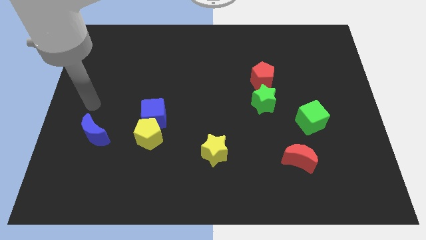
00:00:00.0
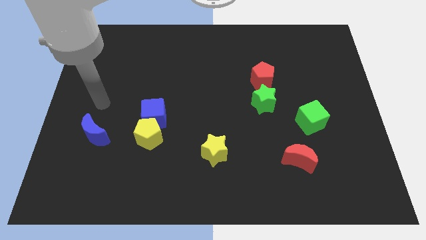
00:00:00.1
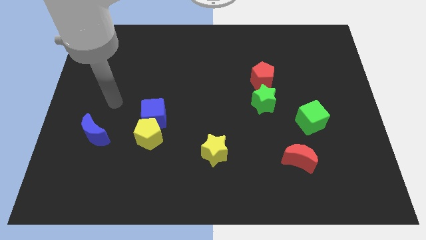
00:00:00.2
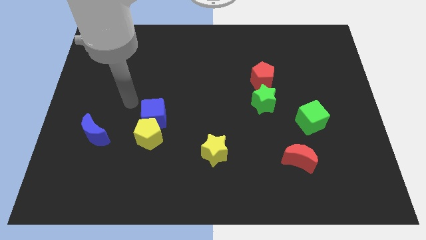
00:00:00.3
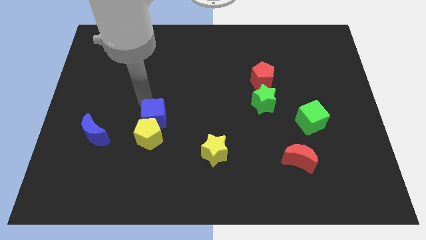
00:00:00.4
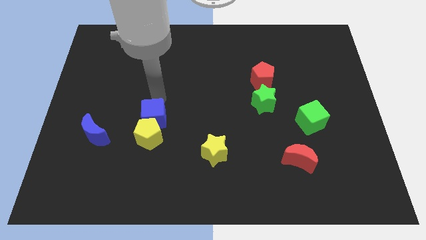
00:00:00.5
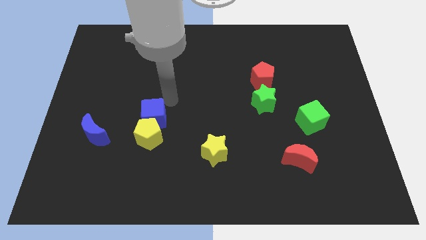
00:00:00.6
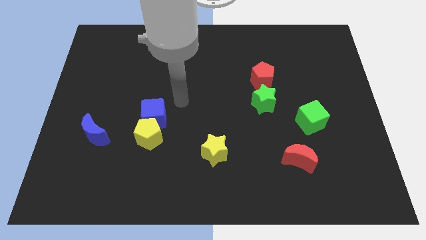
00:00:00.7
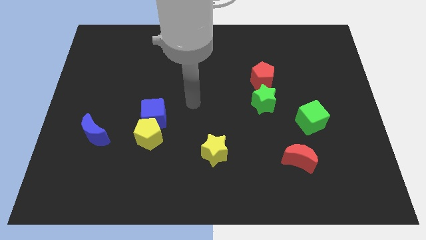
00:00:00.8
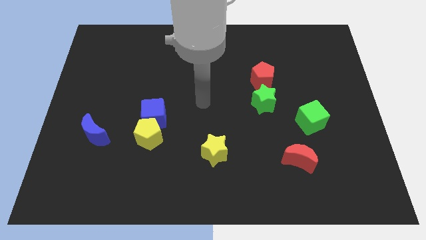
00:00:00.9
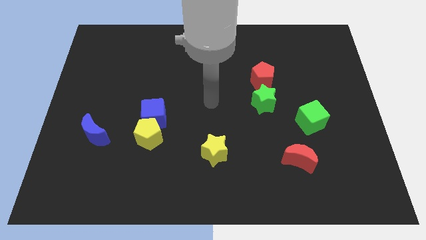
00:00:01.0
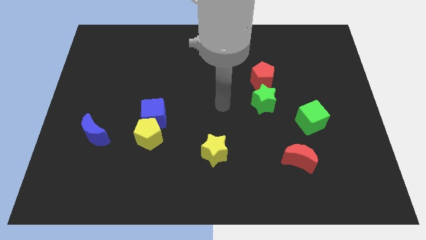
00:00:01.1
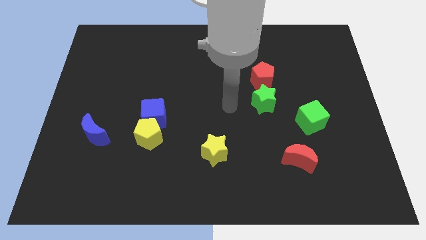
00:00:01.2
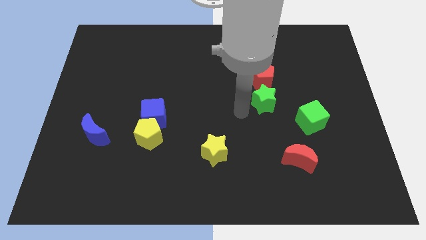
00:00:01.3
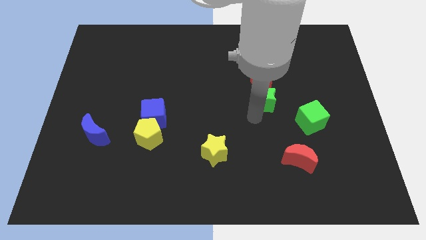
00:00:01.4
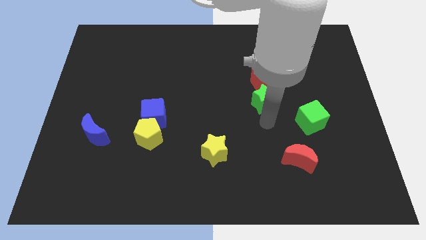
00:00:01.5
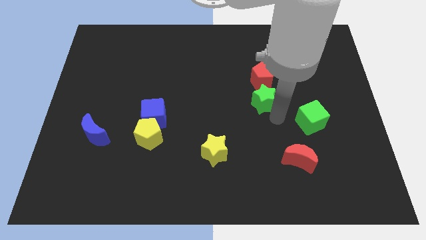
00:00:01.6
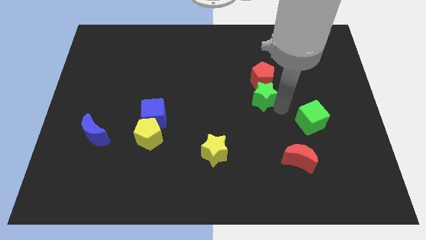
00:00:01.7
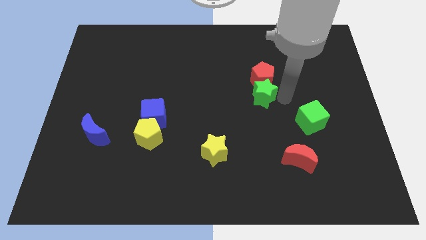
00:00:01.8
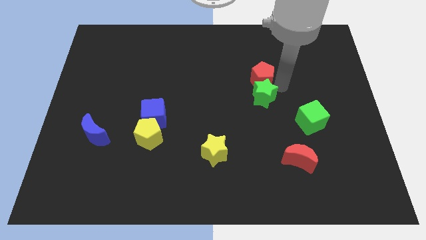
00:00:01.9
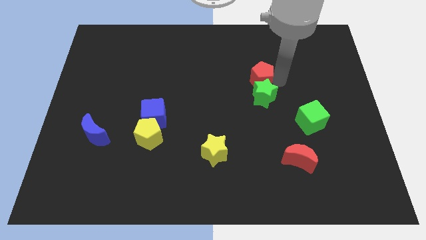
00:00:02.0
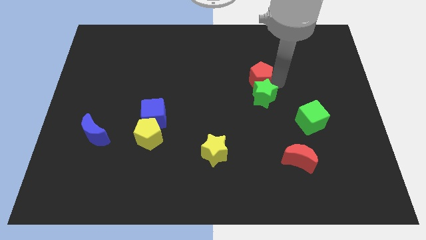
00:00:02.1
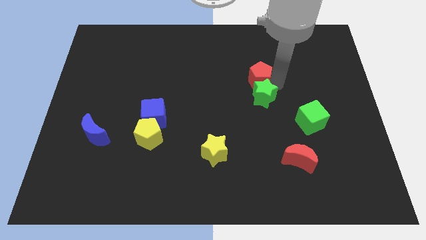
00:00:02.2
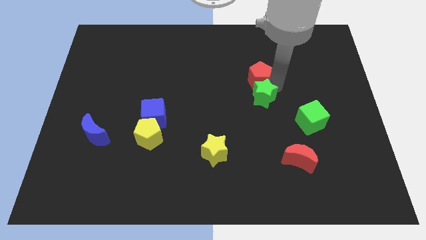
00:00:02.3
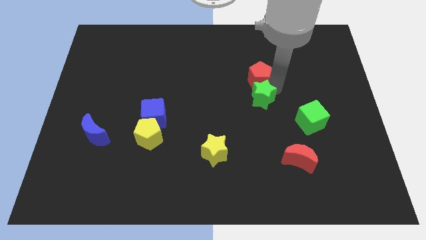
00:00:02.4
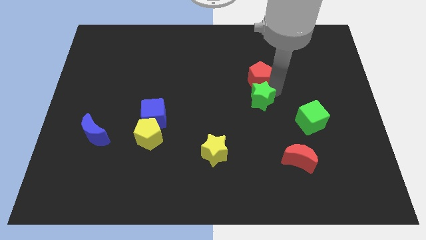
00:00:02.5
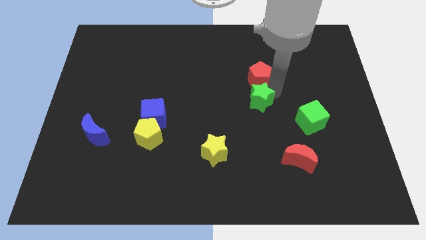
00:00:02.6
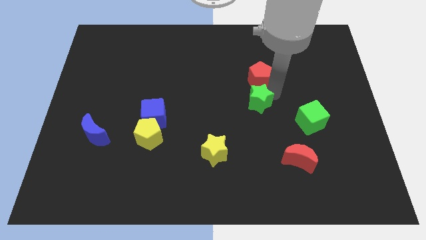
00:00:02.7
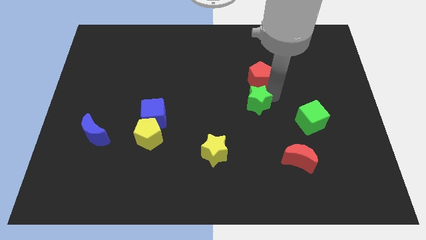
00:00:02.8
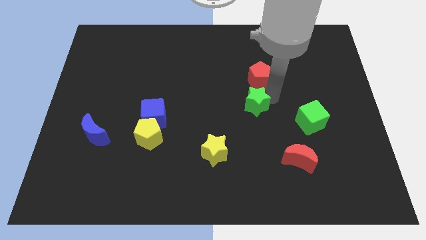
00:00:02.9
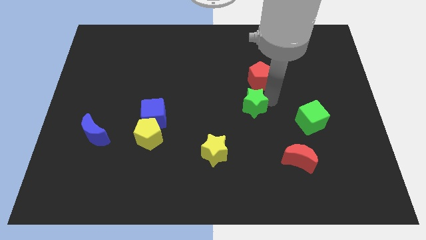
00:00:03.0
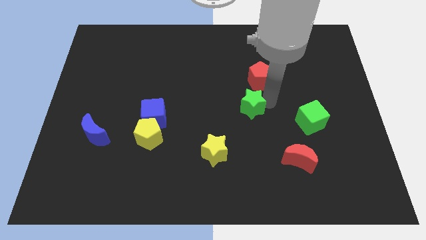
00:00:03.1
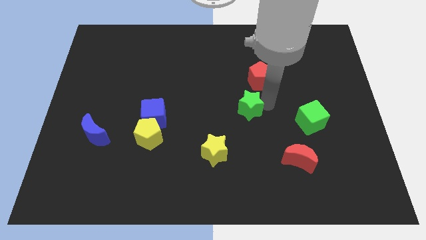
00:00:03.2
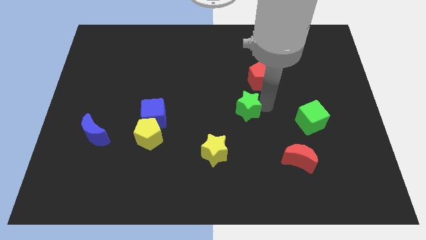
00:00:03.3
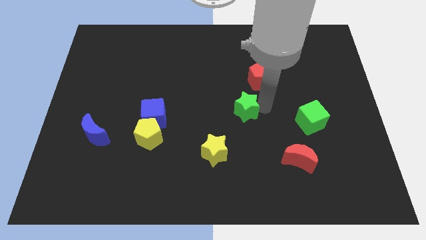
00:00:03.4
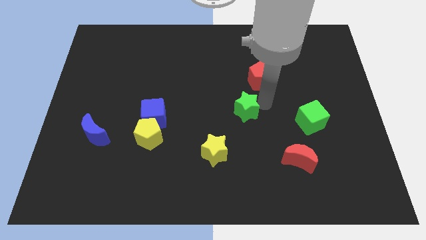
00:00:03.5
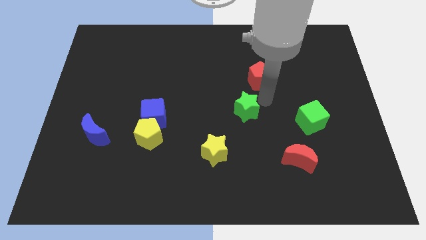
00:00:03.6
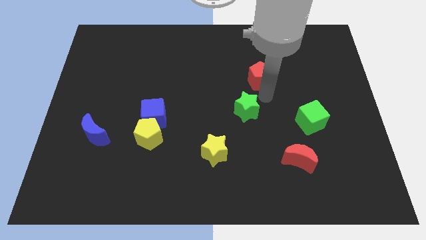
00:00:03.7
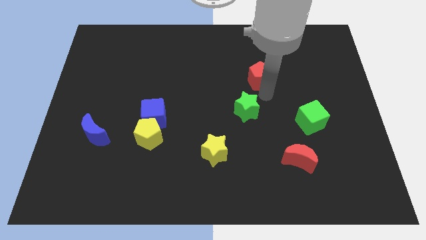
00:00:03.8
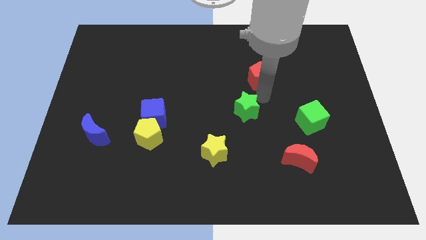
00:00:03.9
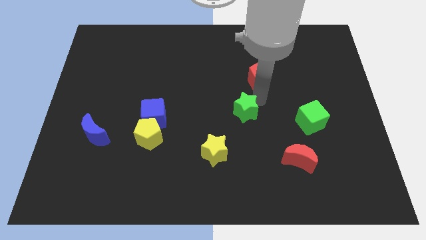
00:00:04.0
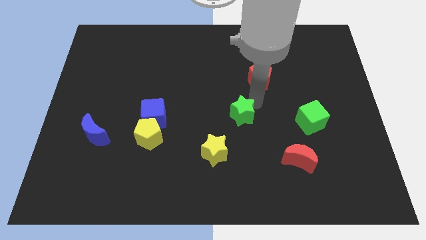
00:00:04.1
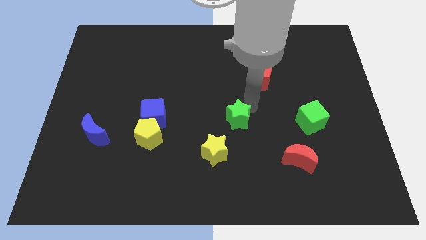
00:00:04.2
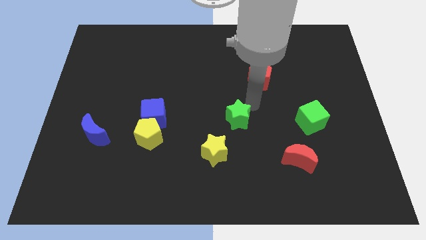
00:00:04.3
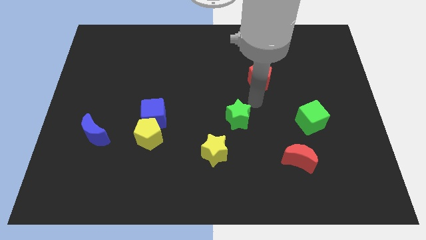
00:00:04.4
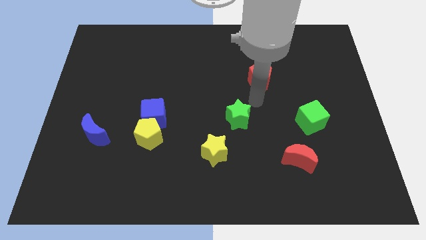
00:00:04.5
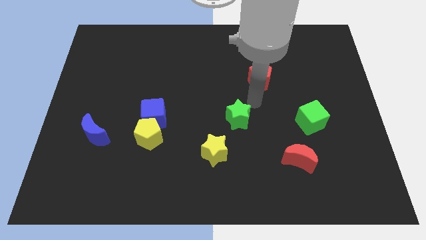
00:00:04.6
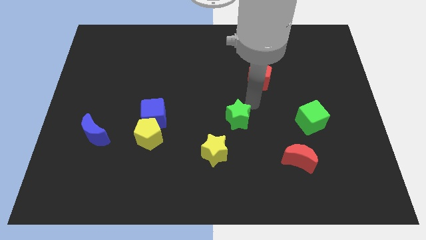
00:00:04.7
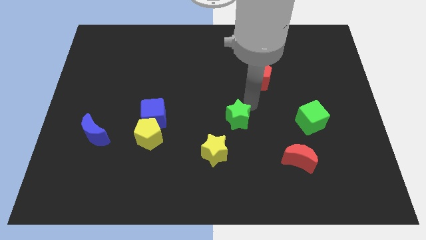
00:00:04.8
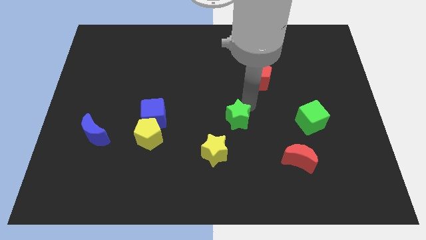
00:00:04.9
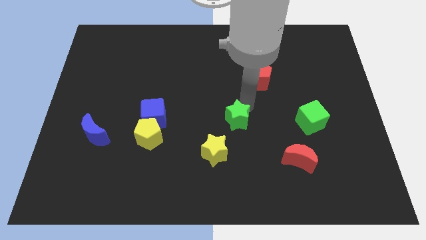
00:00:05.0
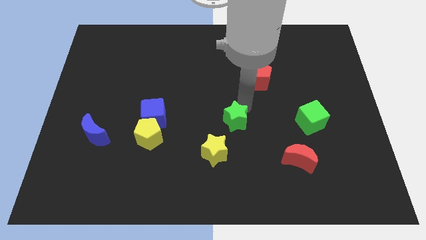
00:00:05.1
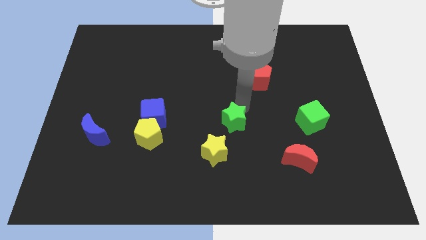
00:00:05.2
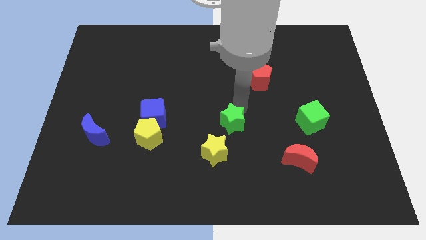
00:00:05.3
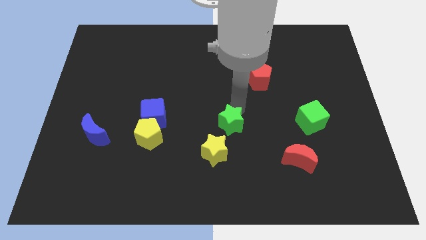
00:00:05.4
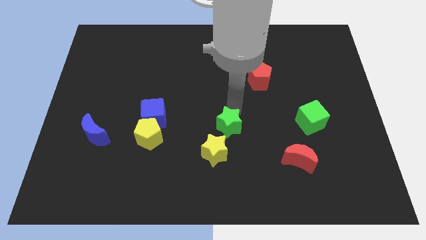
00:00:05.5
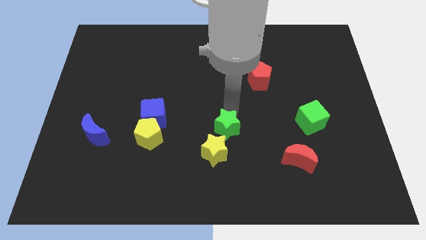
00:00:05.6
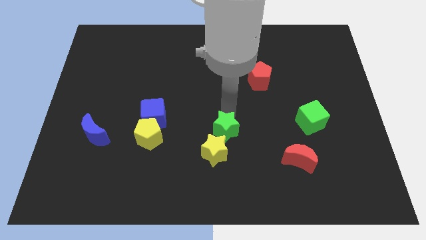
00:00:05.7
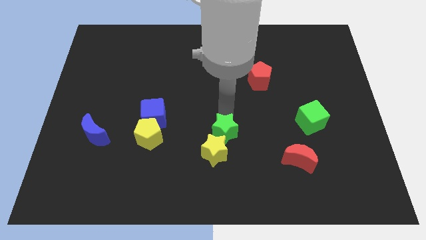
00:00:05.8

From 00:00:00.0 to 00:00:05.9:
push the green star towards the yellow star

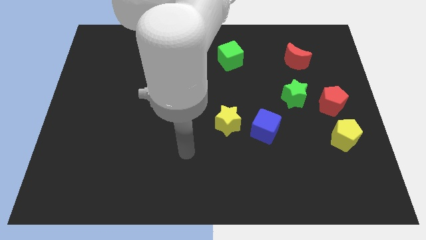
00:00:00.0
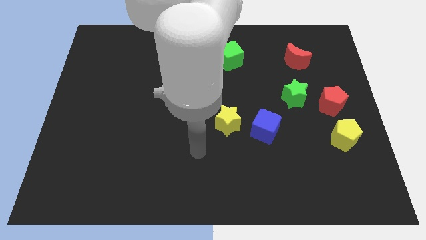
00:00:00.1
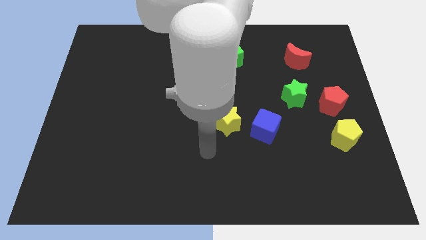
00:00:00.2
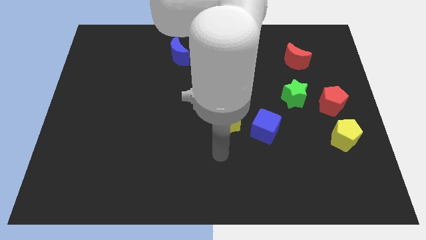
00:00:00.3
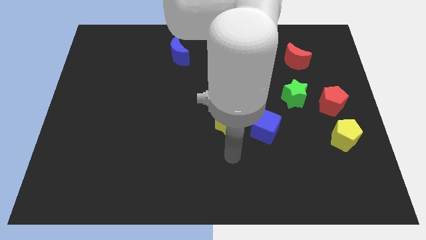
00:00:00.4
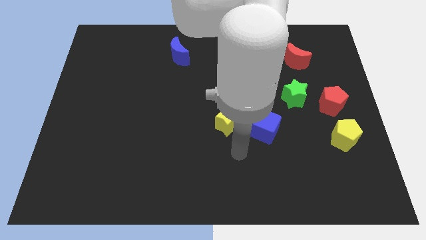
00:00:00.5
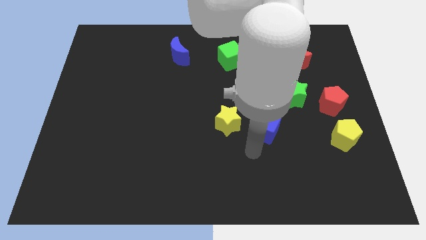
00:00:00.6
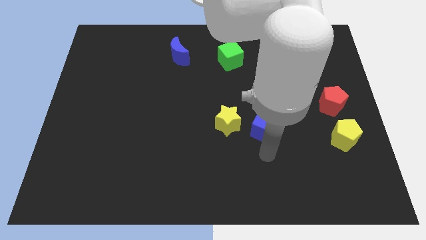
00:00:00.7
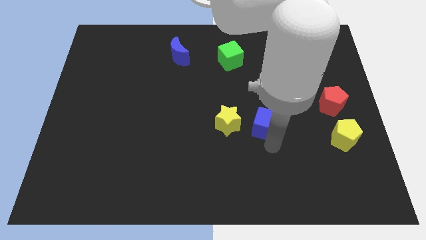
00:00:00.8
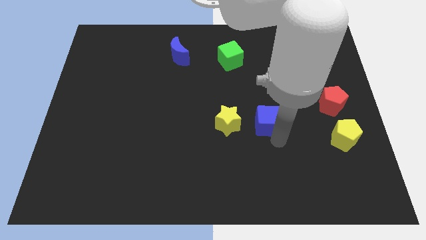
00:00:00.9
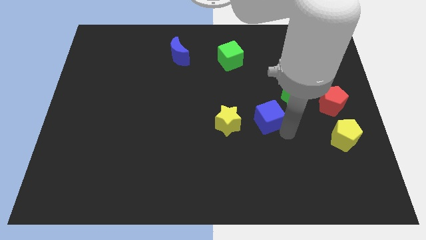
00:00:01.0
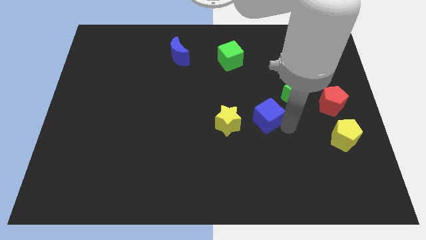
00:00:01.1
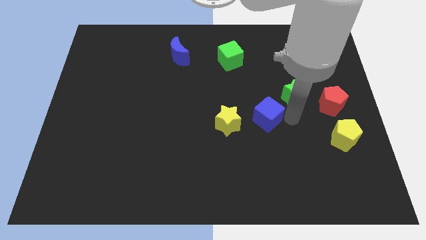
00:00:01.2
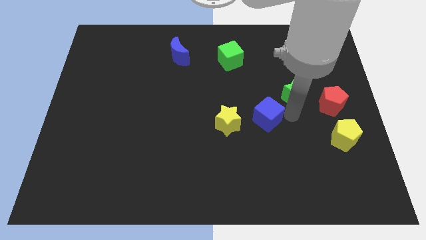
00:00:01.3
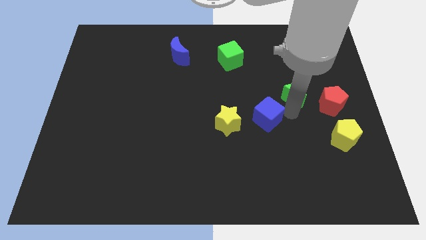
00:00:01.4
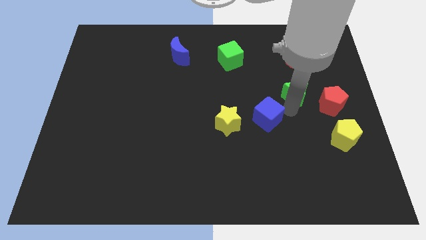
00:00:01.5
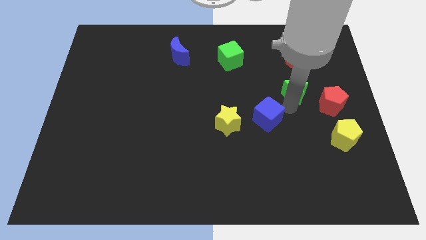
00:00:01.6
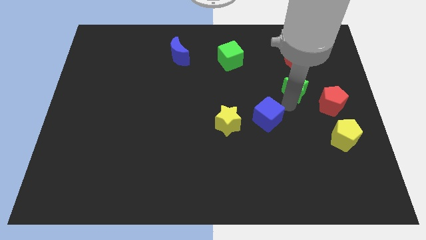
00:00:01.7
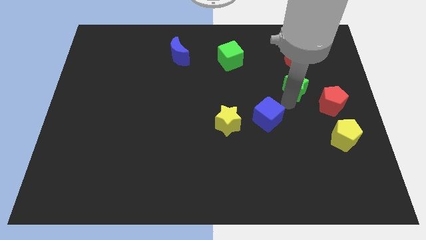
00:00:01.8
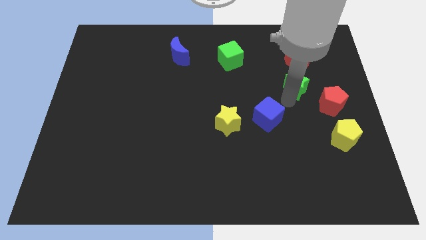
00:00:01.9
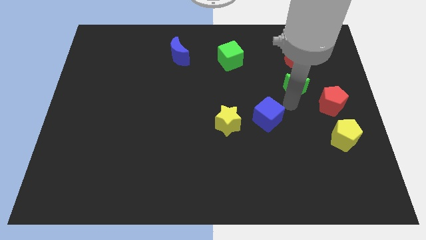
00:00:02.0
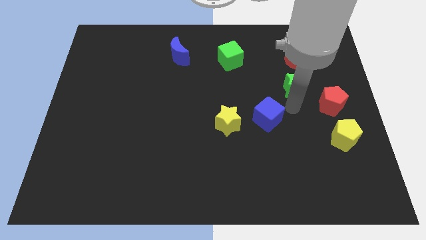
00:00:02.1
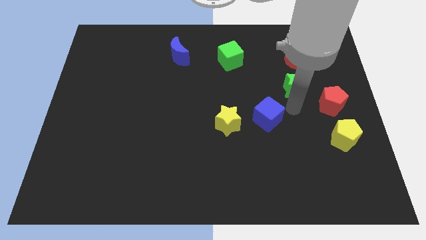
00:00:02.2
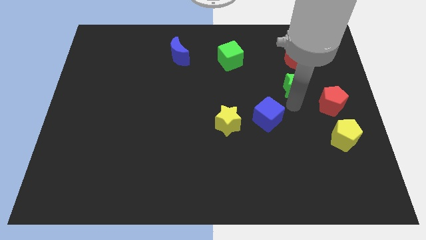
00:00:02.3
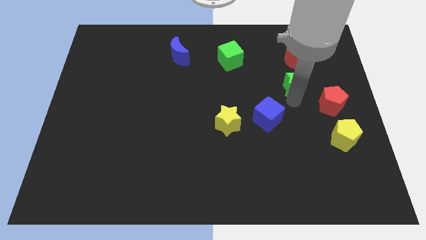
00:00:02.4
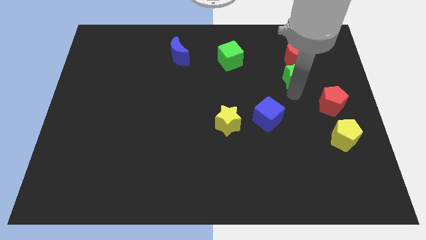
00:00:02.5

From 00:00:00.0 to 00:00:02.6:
move the green star towards the red moon
